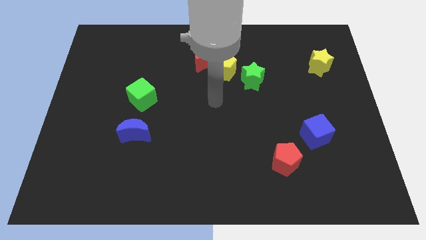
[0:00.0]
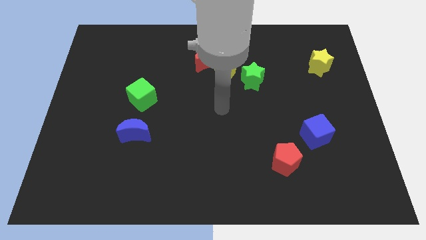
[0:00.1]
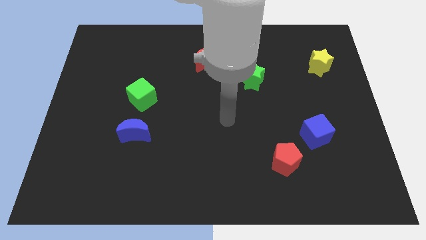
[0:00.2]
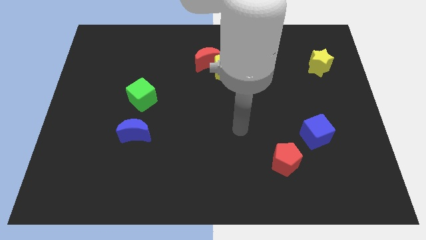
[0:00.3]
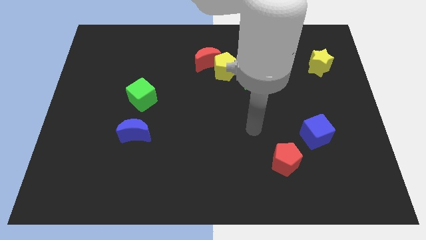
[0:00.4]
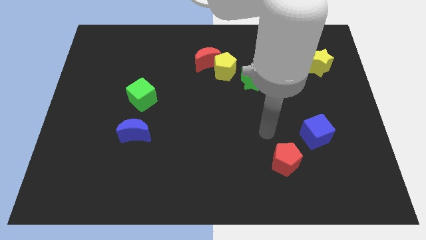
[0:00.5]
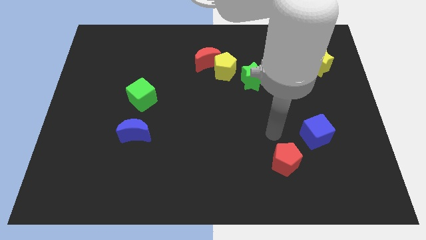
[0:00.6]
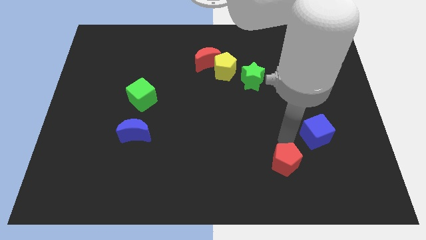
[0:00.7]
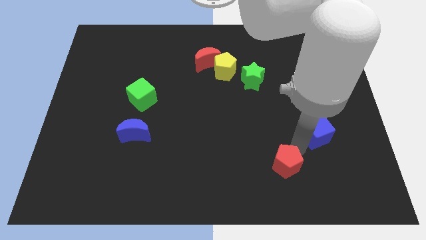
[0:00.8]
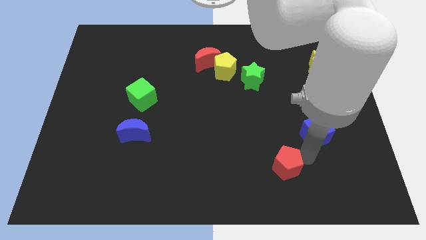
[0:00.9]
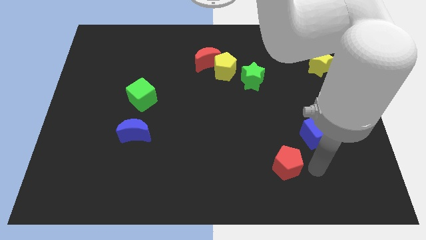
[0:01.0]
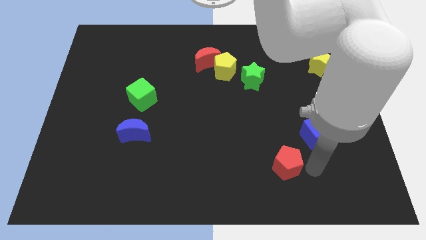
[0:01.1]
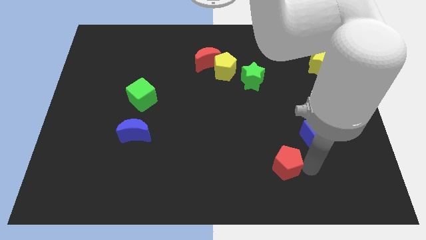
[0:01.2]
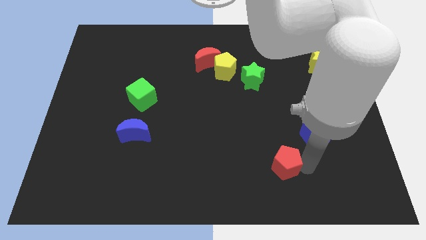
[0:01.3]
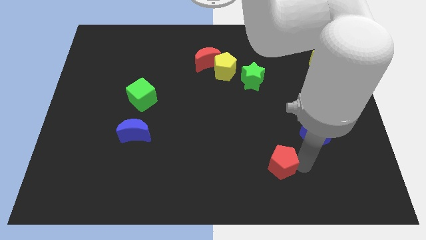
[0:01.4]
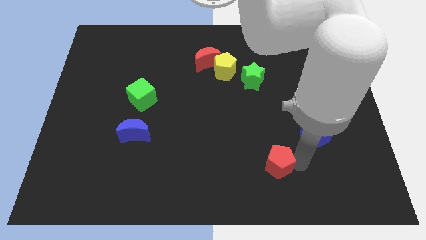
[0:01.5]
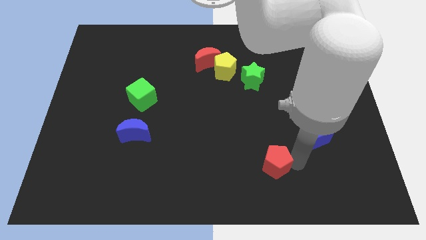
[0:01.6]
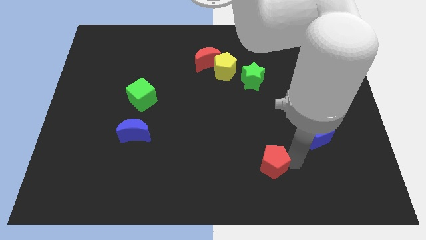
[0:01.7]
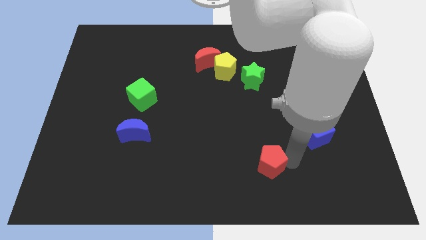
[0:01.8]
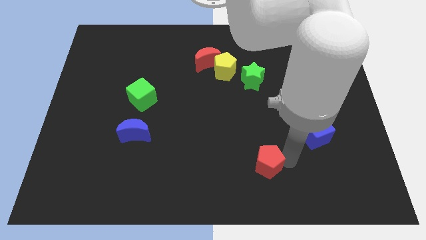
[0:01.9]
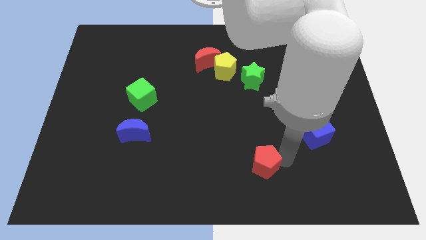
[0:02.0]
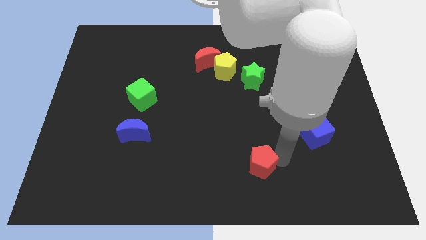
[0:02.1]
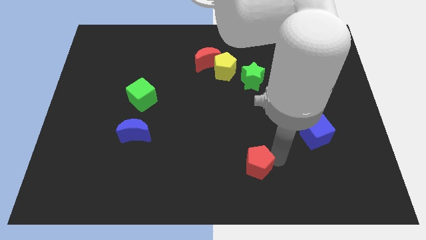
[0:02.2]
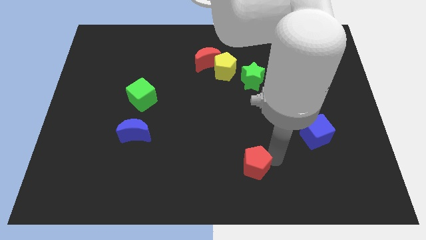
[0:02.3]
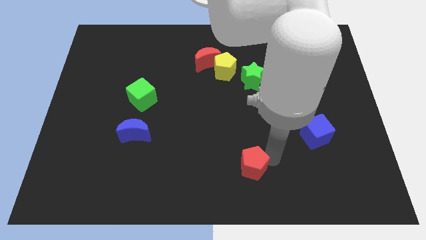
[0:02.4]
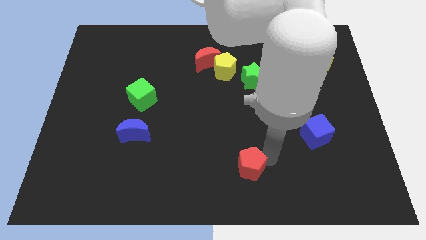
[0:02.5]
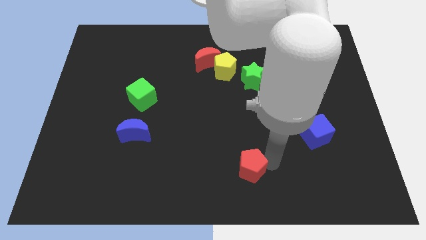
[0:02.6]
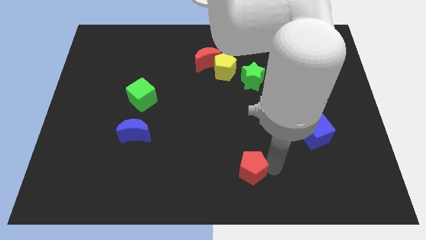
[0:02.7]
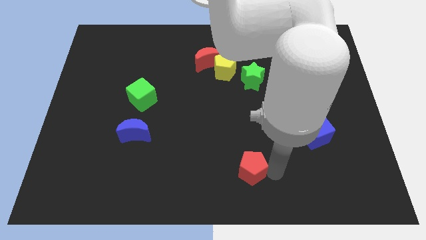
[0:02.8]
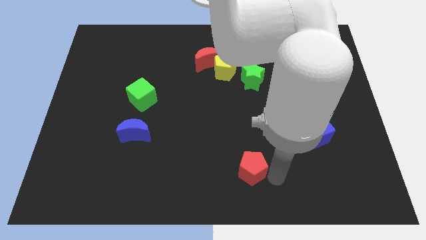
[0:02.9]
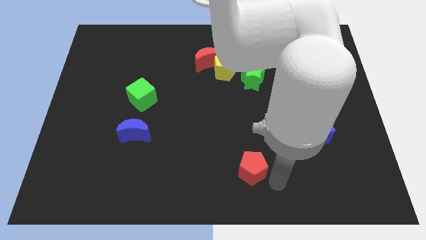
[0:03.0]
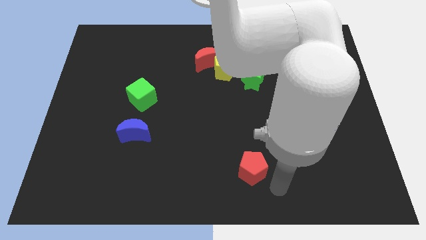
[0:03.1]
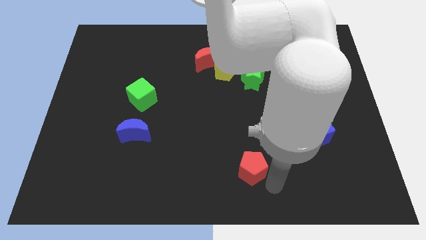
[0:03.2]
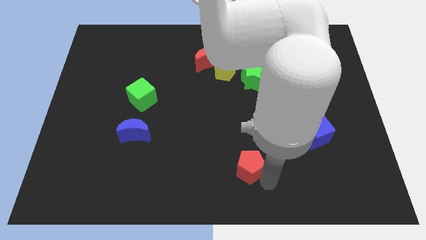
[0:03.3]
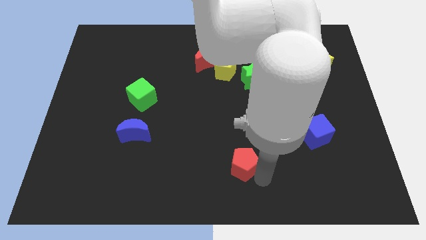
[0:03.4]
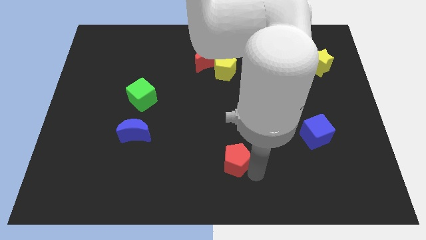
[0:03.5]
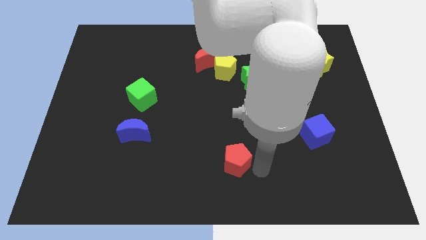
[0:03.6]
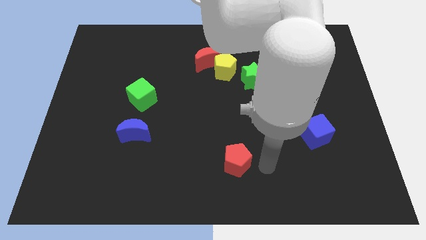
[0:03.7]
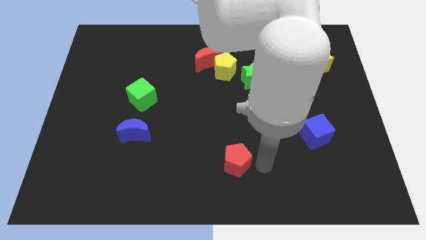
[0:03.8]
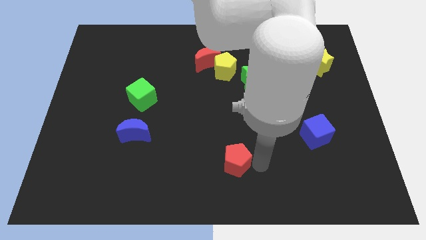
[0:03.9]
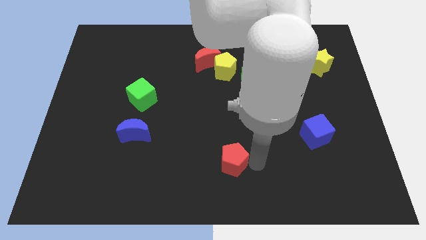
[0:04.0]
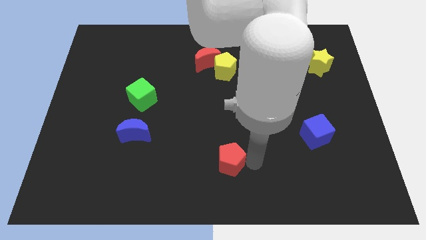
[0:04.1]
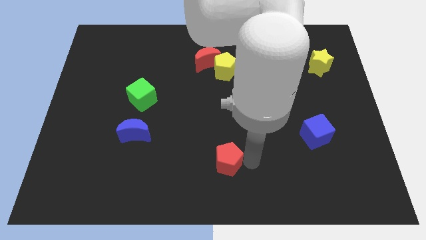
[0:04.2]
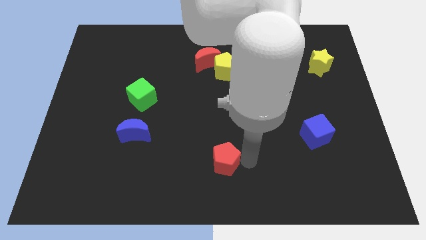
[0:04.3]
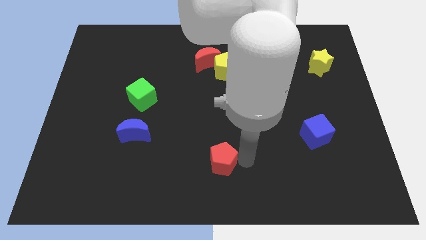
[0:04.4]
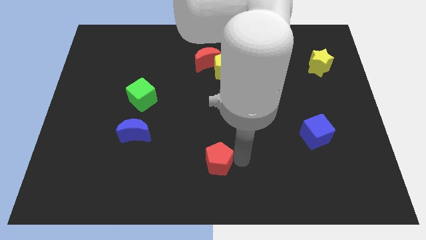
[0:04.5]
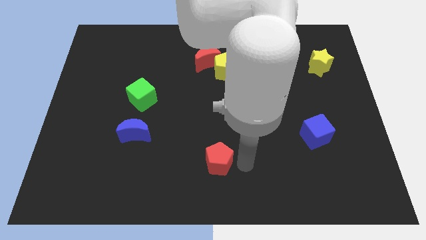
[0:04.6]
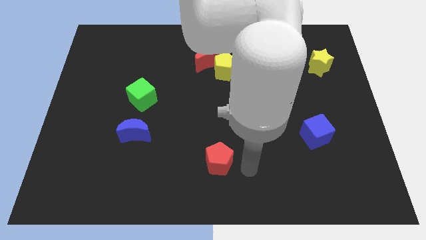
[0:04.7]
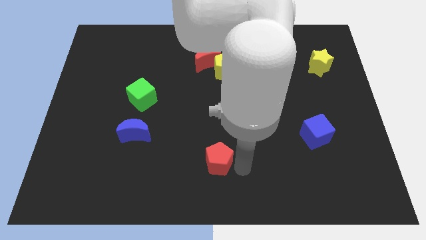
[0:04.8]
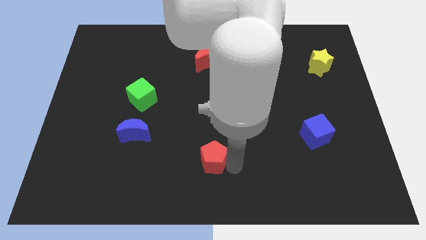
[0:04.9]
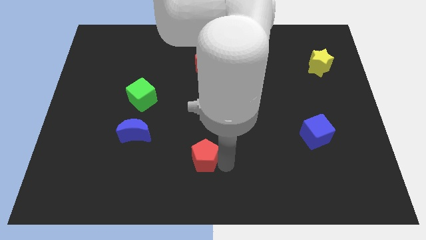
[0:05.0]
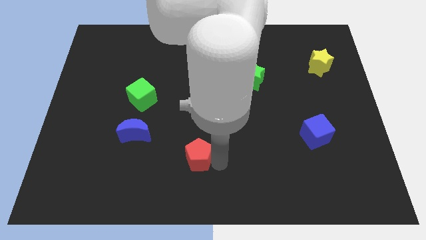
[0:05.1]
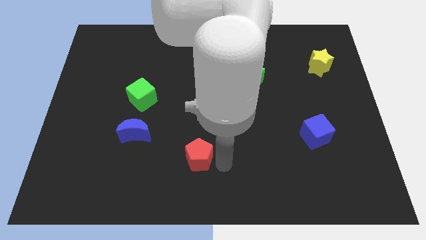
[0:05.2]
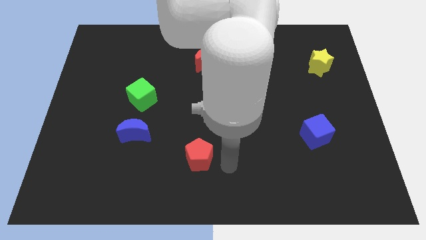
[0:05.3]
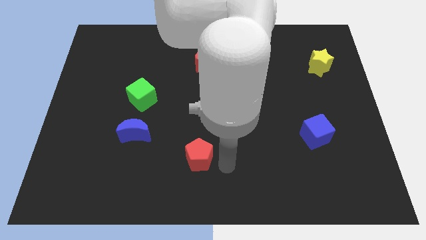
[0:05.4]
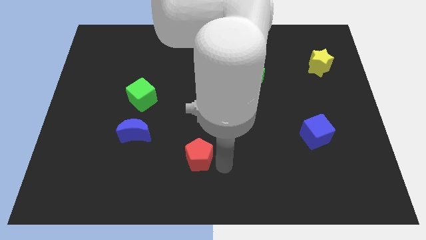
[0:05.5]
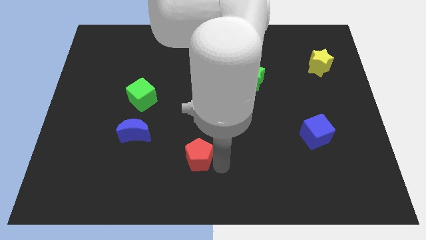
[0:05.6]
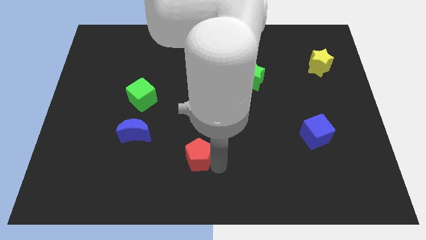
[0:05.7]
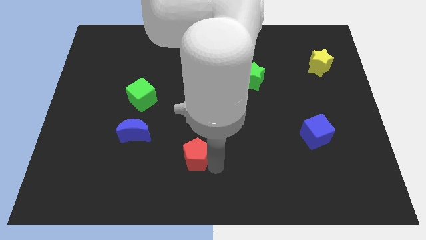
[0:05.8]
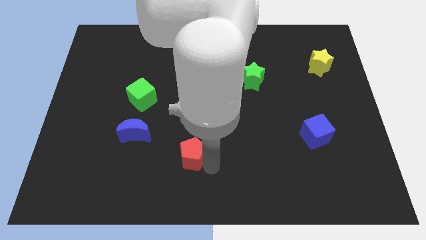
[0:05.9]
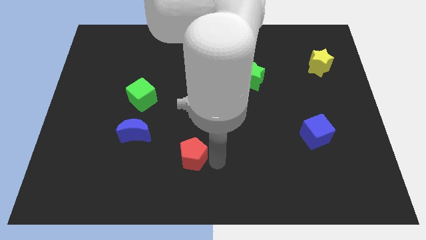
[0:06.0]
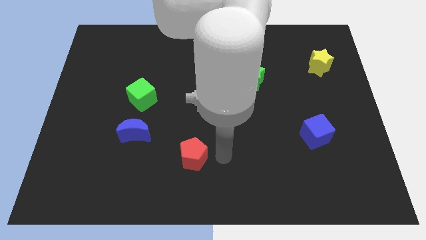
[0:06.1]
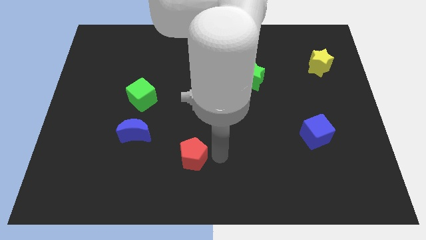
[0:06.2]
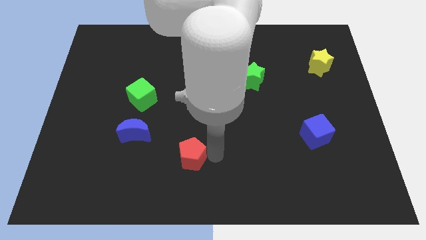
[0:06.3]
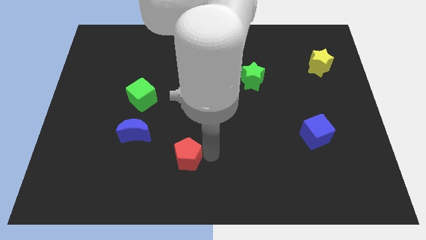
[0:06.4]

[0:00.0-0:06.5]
move the red pentagon left

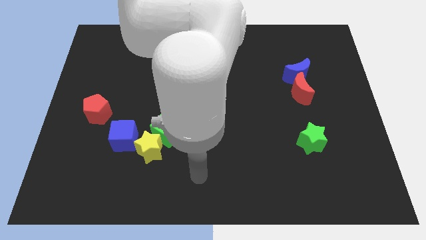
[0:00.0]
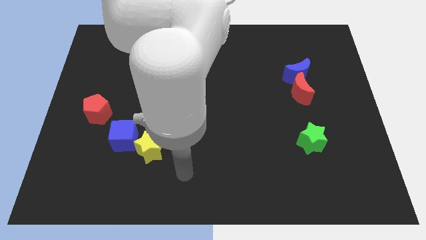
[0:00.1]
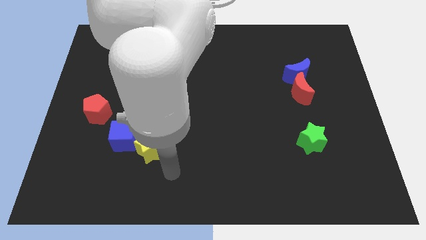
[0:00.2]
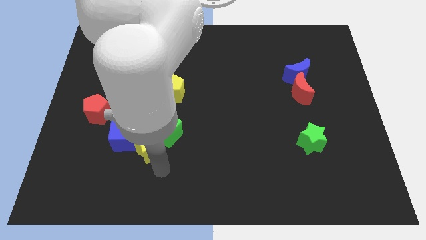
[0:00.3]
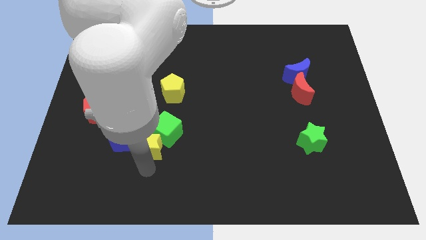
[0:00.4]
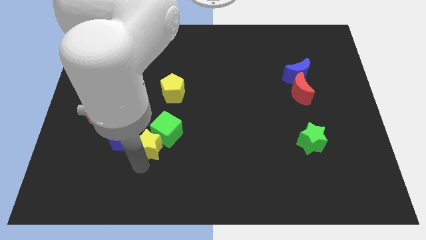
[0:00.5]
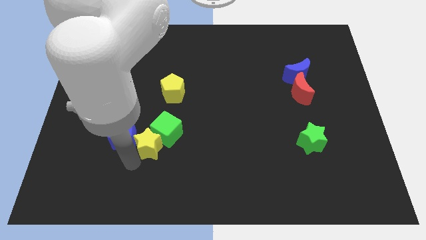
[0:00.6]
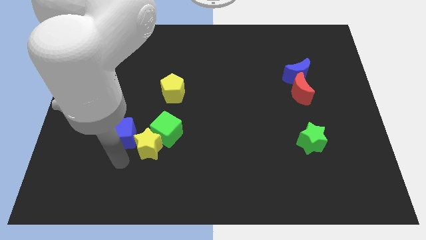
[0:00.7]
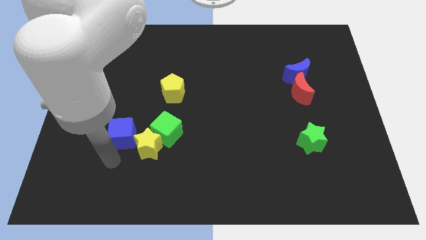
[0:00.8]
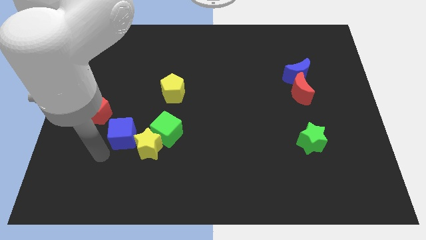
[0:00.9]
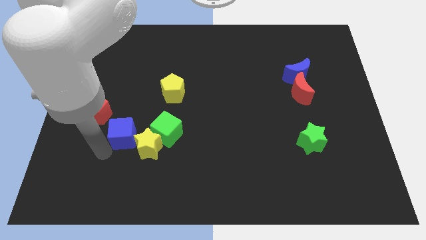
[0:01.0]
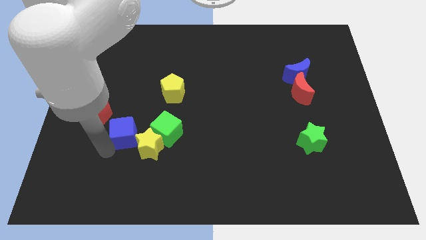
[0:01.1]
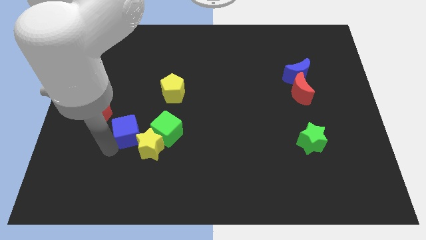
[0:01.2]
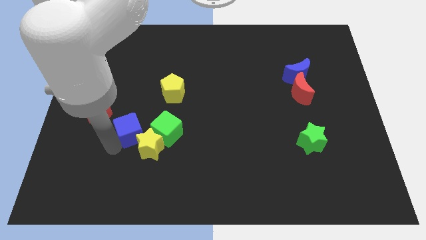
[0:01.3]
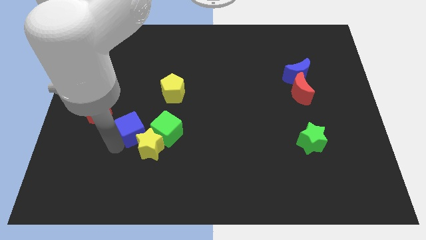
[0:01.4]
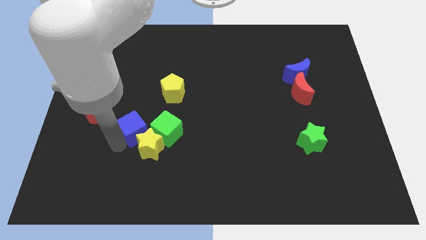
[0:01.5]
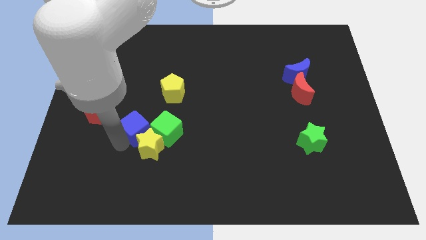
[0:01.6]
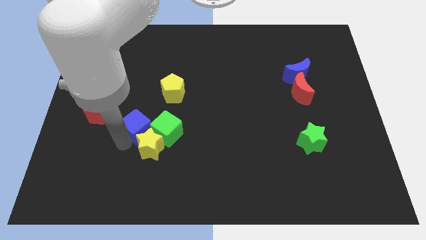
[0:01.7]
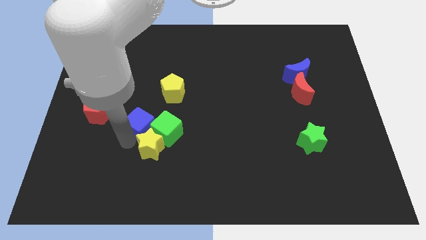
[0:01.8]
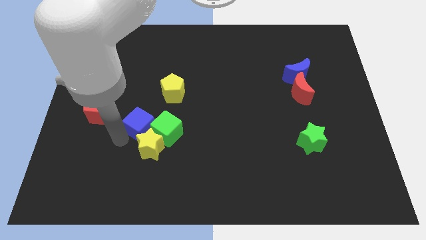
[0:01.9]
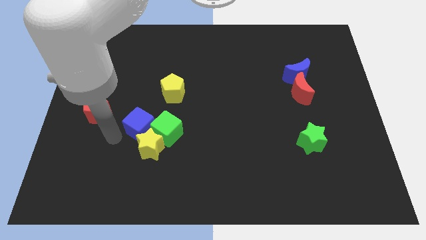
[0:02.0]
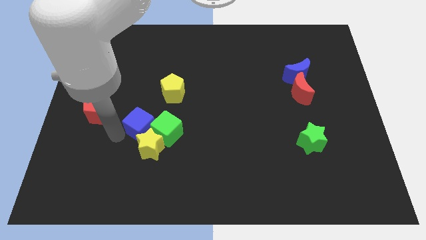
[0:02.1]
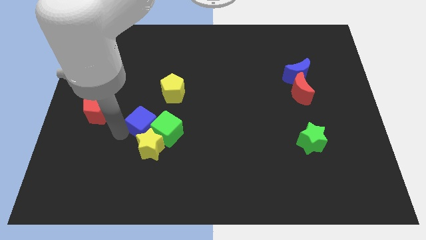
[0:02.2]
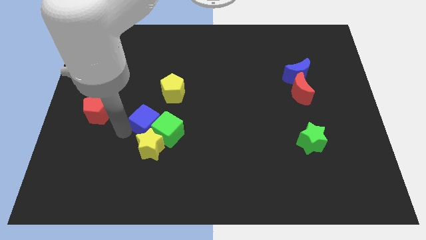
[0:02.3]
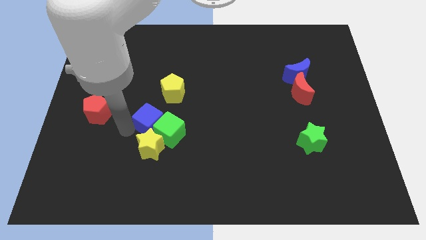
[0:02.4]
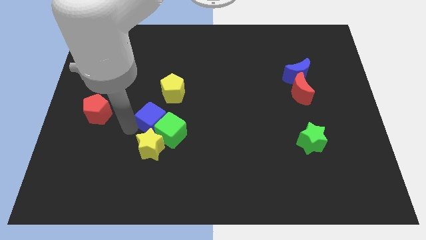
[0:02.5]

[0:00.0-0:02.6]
move the blue cube diagonally upwards and right a bit
